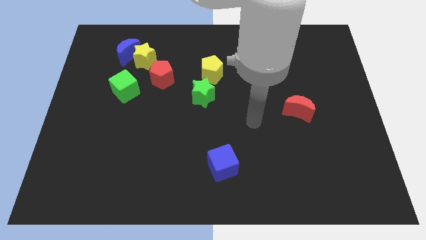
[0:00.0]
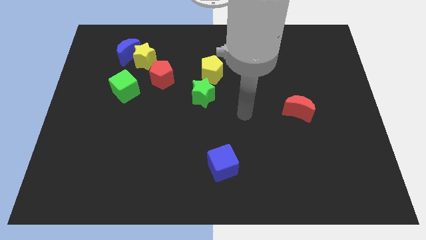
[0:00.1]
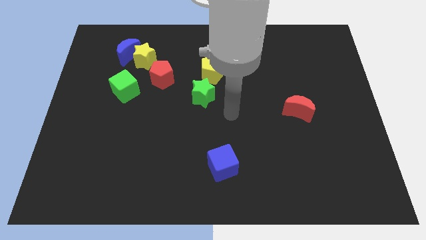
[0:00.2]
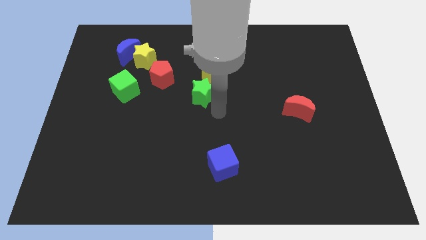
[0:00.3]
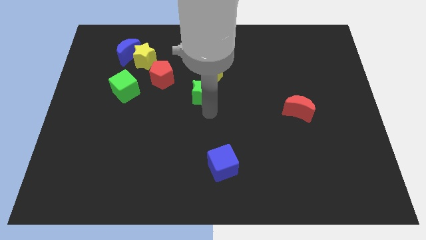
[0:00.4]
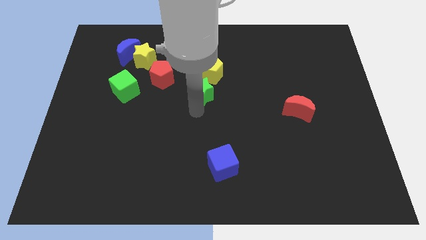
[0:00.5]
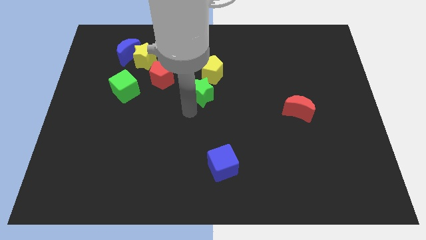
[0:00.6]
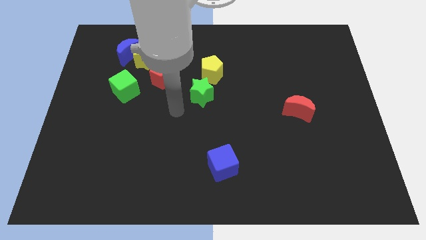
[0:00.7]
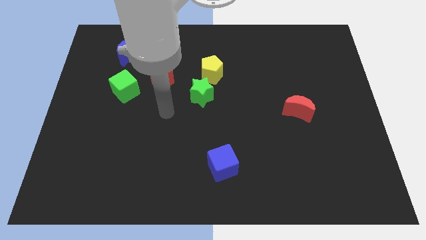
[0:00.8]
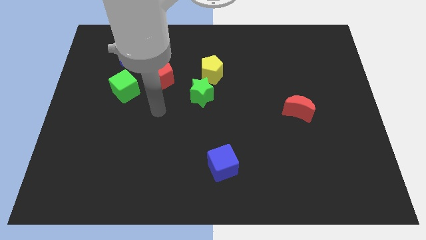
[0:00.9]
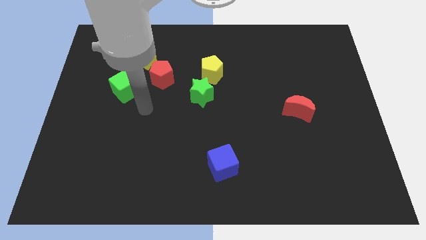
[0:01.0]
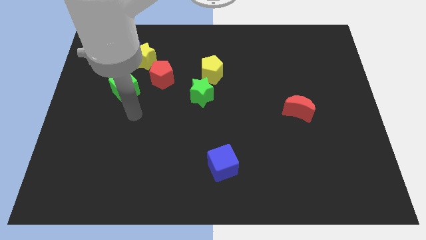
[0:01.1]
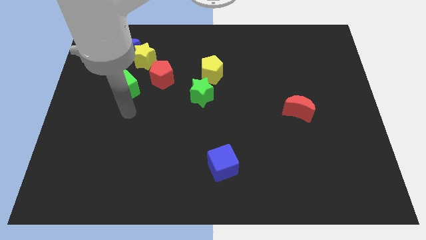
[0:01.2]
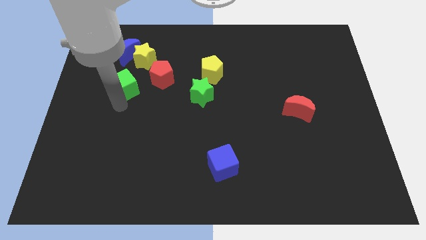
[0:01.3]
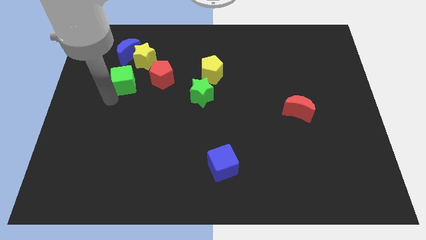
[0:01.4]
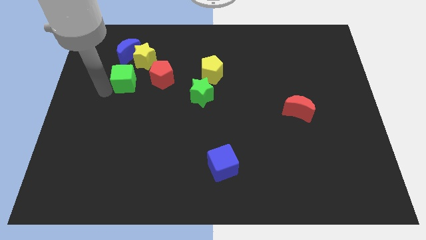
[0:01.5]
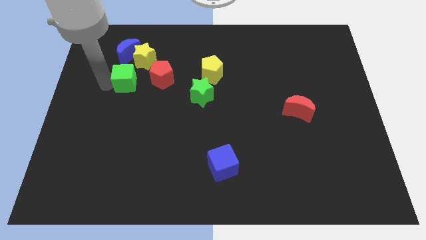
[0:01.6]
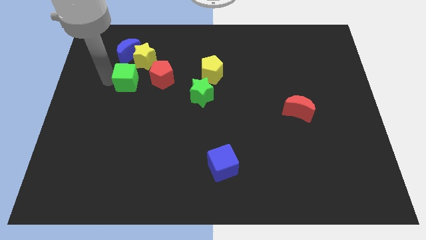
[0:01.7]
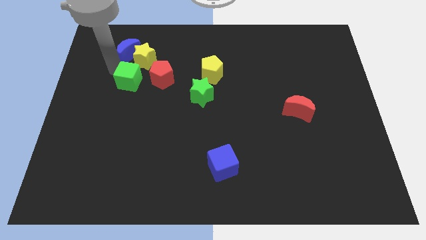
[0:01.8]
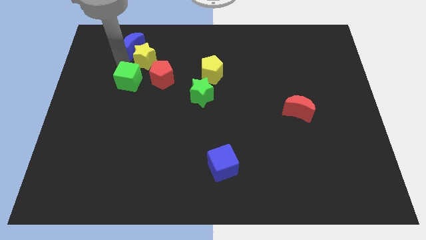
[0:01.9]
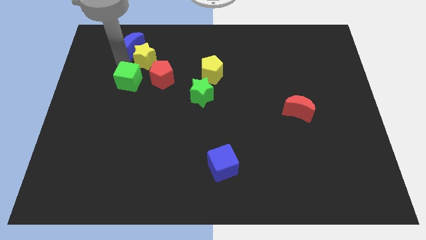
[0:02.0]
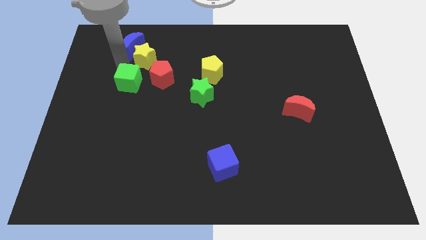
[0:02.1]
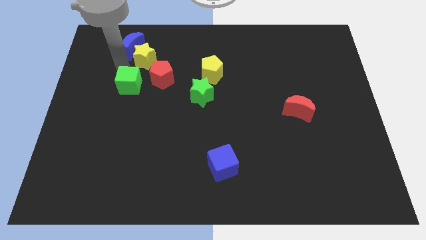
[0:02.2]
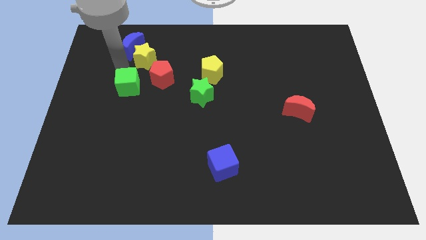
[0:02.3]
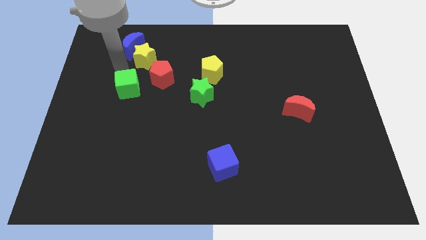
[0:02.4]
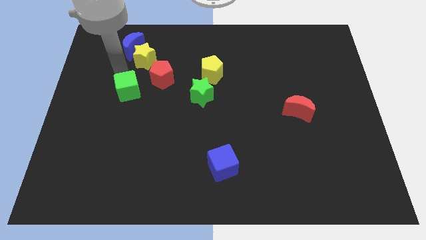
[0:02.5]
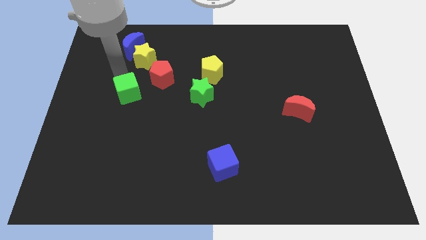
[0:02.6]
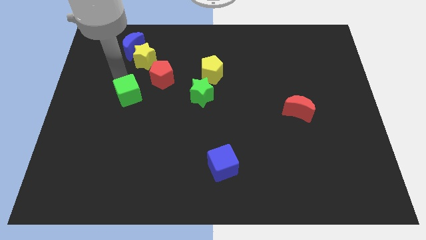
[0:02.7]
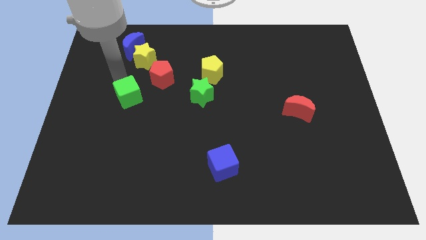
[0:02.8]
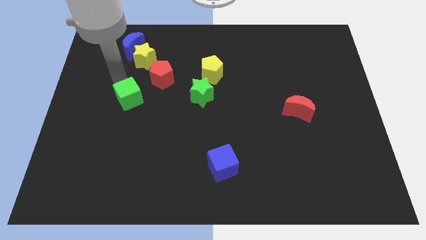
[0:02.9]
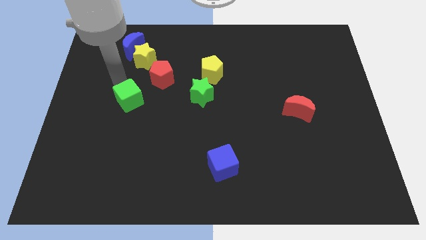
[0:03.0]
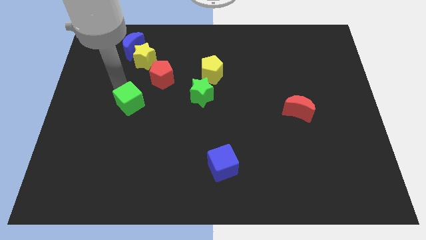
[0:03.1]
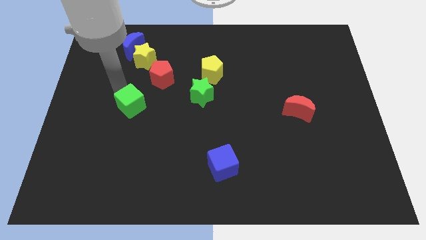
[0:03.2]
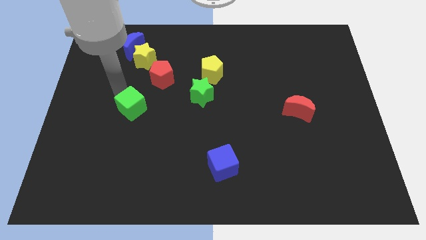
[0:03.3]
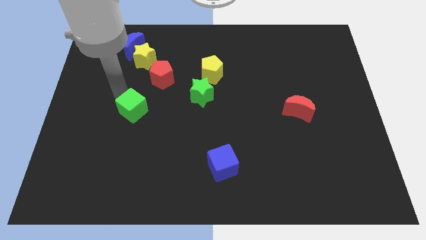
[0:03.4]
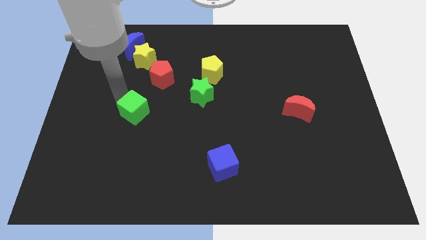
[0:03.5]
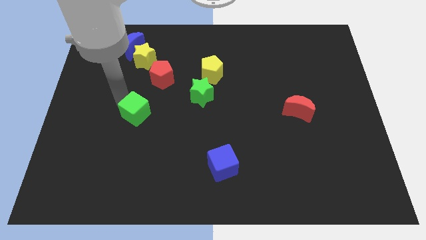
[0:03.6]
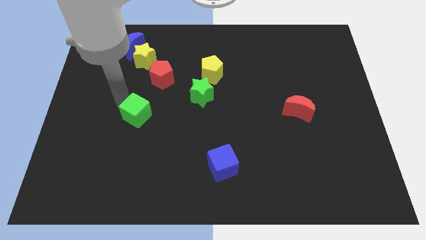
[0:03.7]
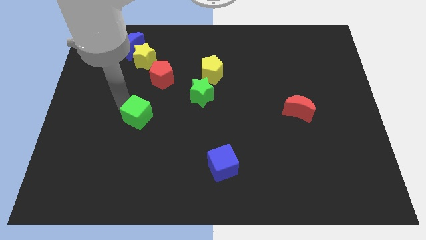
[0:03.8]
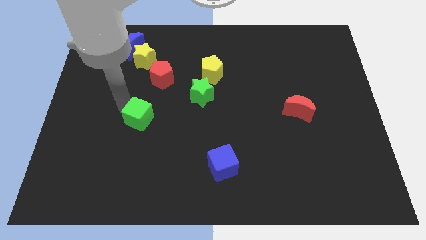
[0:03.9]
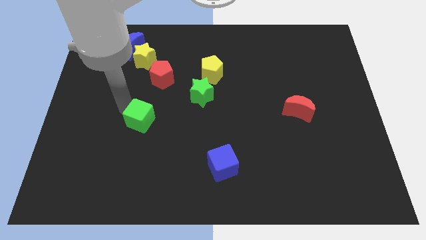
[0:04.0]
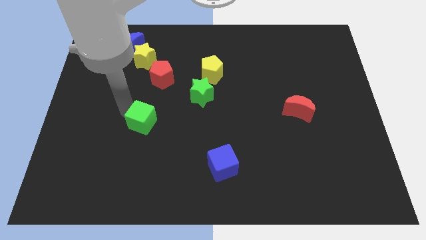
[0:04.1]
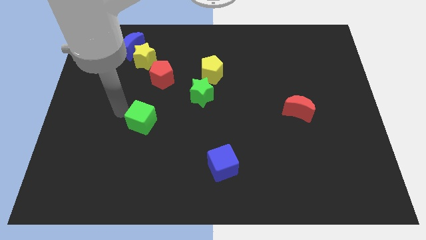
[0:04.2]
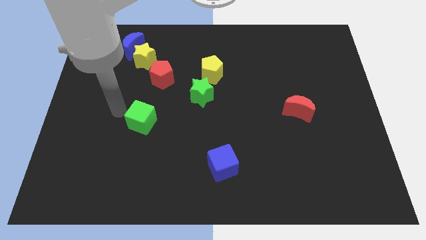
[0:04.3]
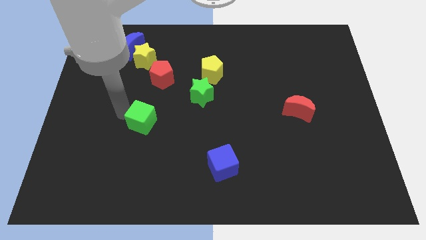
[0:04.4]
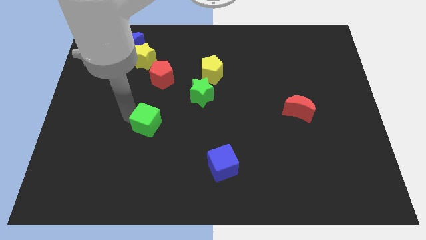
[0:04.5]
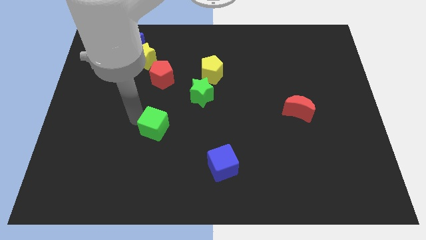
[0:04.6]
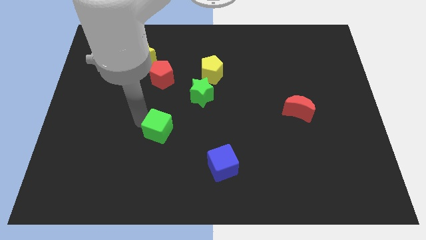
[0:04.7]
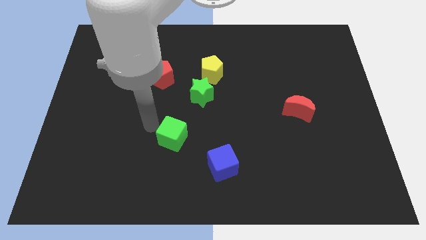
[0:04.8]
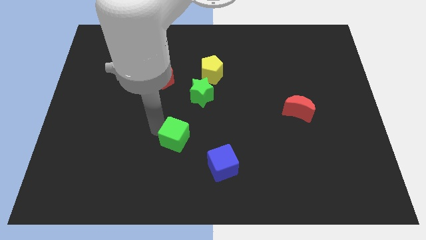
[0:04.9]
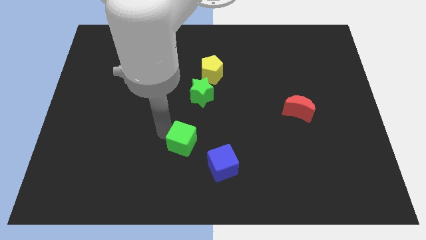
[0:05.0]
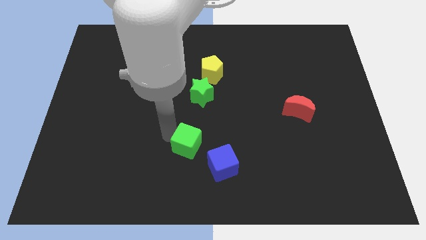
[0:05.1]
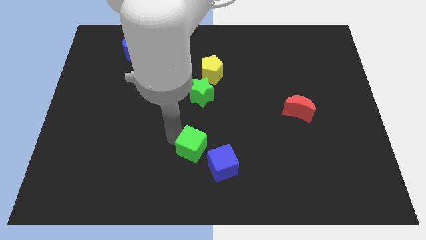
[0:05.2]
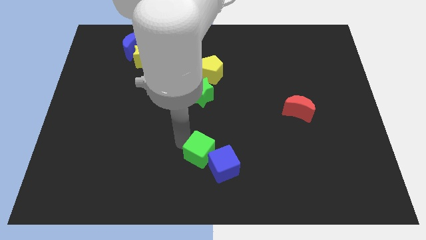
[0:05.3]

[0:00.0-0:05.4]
put the green cube to the blue cube

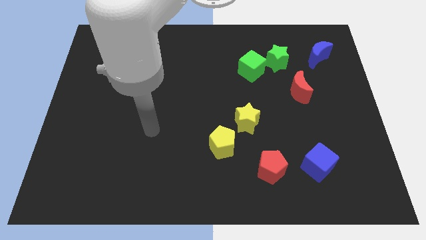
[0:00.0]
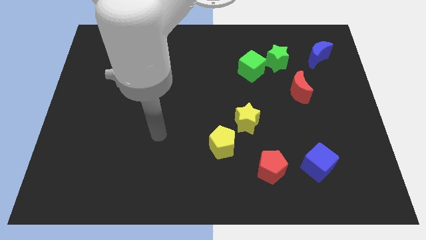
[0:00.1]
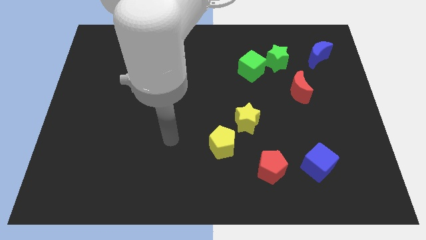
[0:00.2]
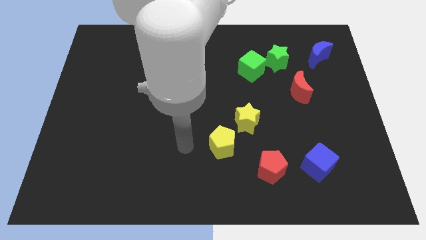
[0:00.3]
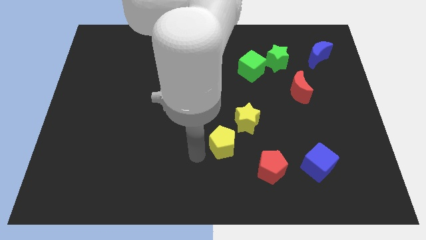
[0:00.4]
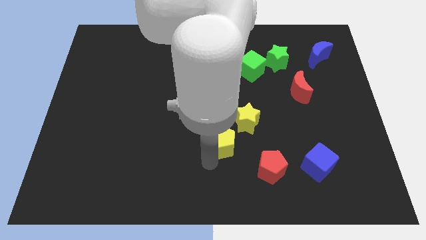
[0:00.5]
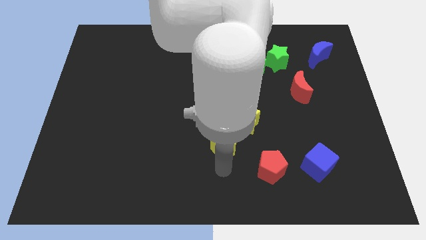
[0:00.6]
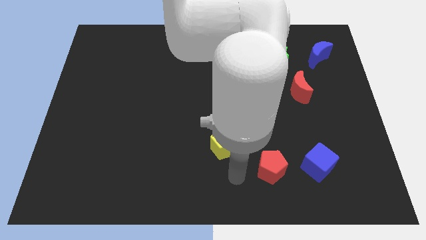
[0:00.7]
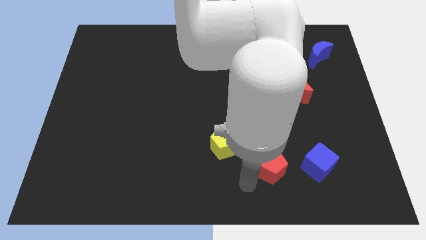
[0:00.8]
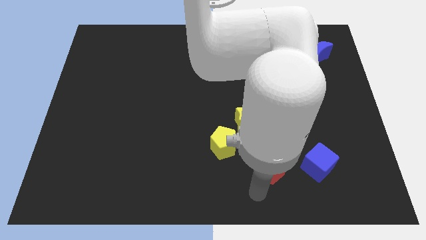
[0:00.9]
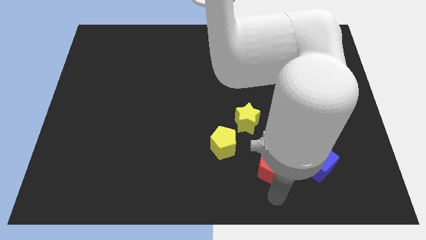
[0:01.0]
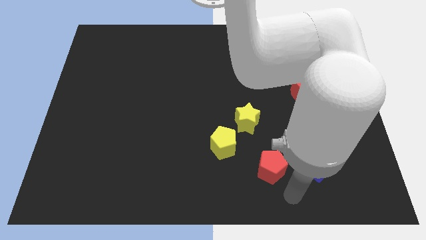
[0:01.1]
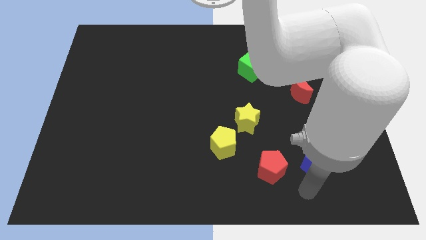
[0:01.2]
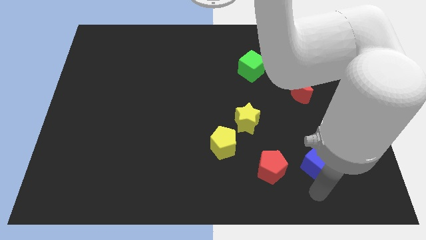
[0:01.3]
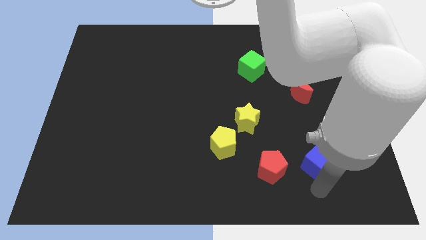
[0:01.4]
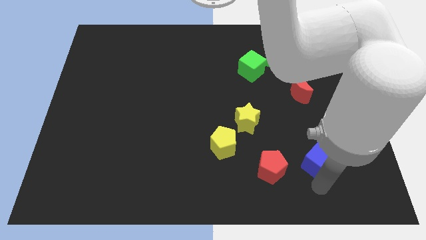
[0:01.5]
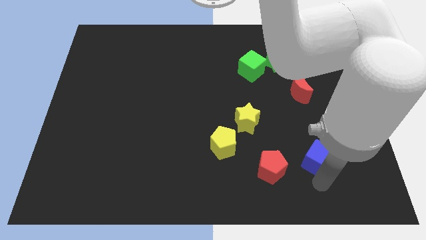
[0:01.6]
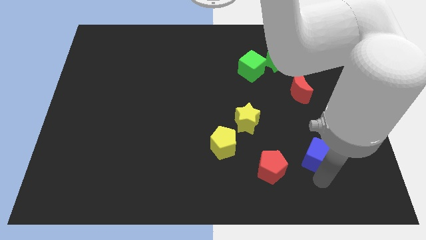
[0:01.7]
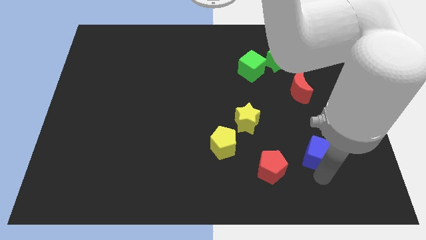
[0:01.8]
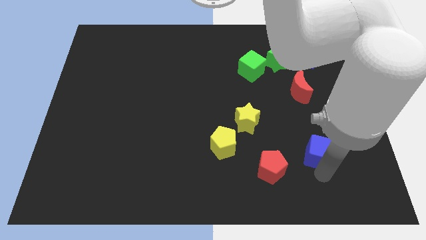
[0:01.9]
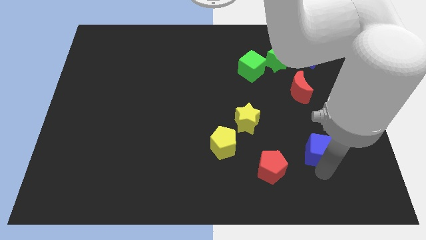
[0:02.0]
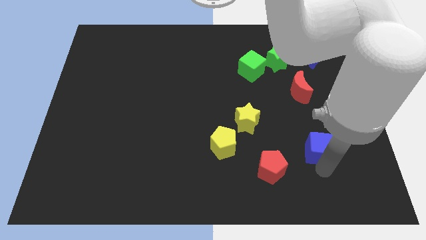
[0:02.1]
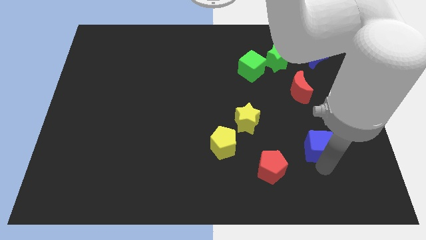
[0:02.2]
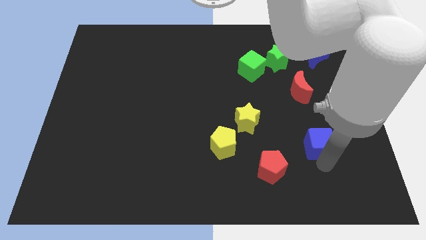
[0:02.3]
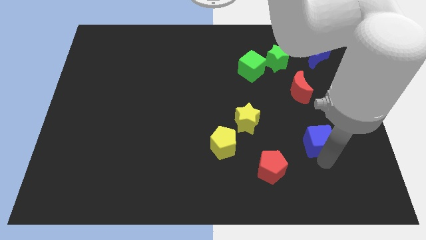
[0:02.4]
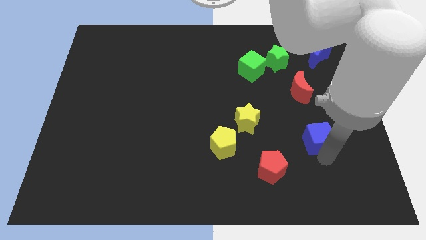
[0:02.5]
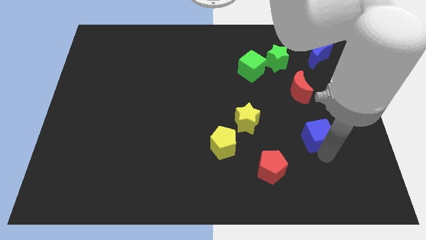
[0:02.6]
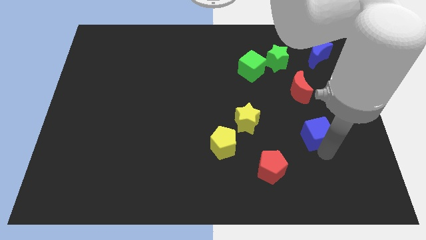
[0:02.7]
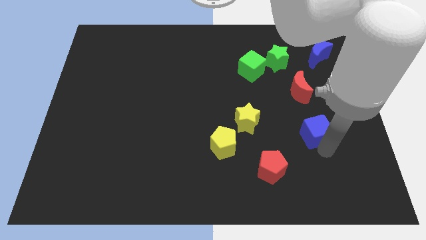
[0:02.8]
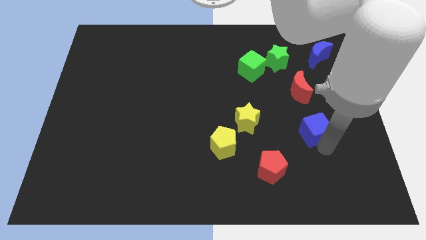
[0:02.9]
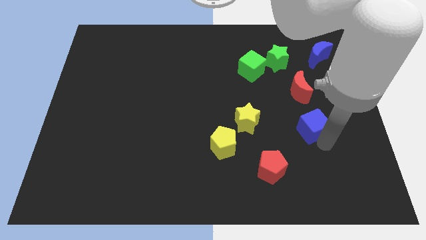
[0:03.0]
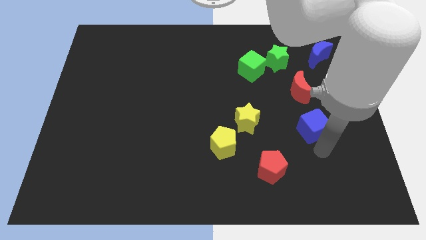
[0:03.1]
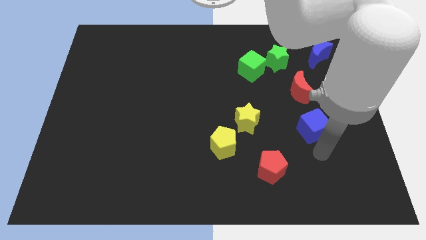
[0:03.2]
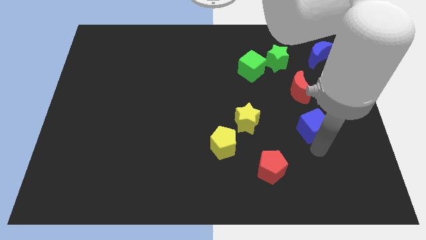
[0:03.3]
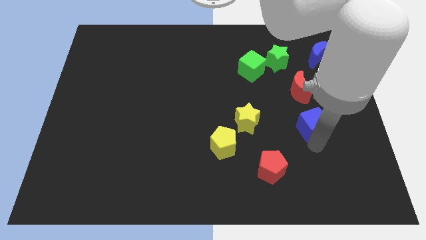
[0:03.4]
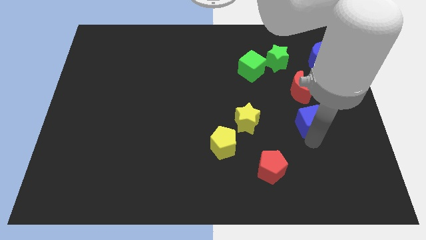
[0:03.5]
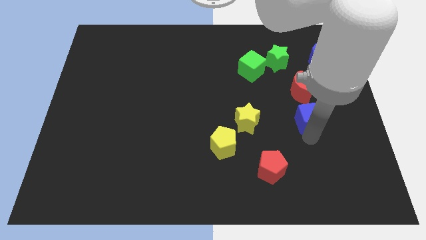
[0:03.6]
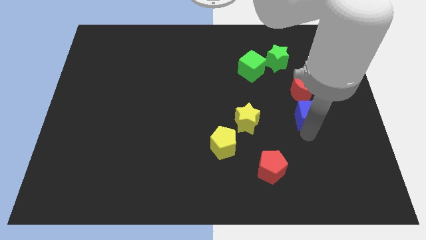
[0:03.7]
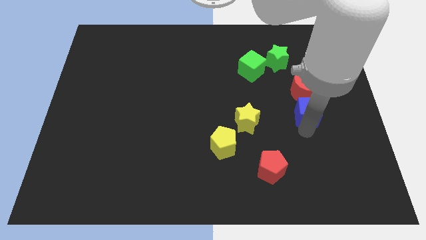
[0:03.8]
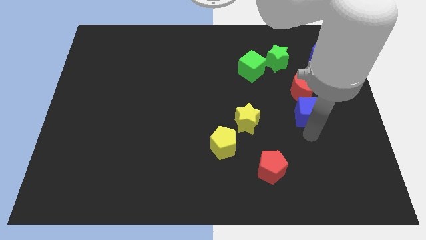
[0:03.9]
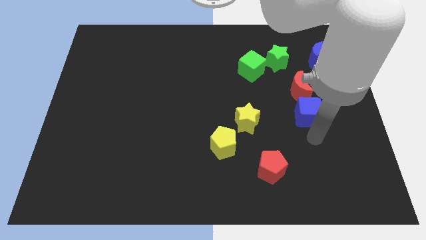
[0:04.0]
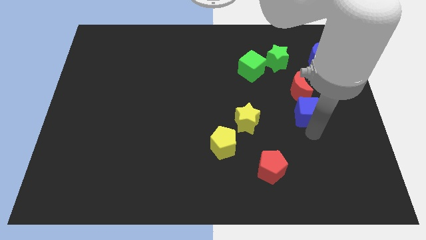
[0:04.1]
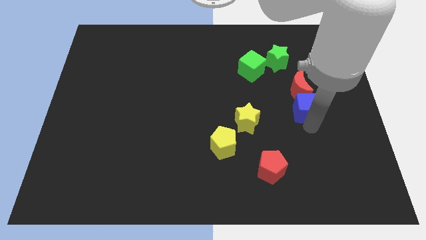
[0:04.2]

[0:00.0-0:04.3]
move the blue cube close to the red moon
